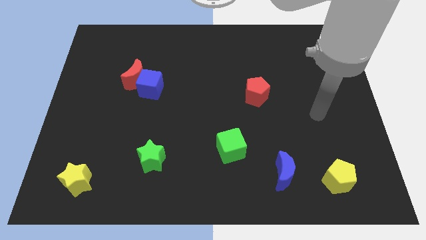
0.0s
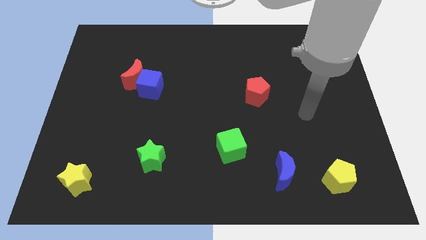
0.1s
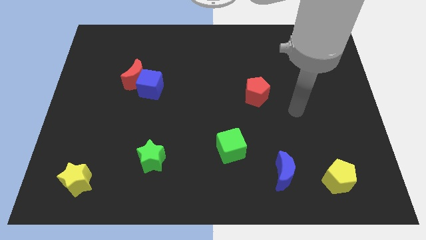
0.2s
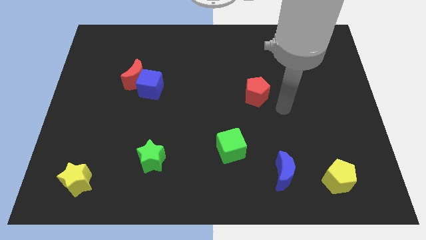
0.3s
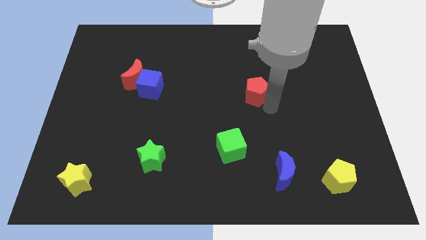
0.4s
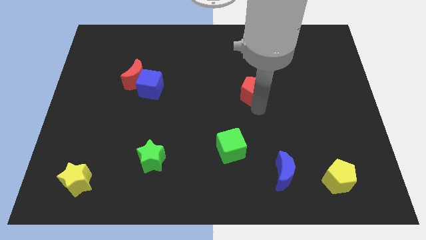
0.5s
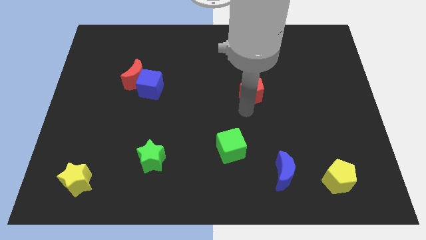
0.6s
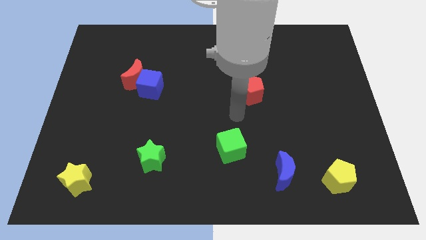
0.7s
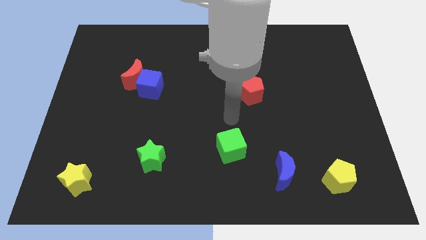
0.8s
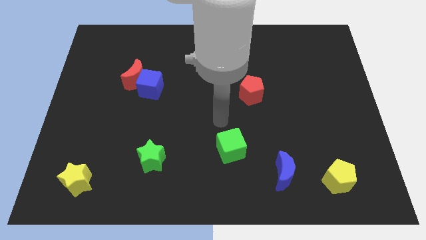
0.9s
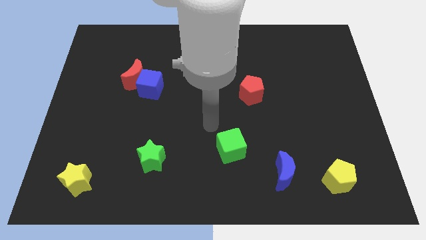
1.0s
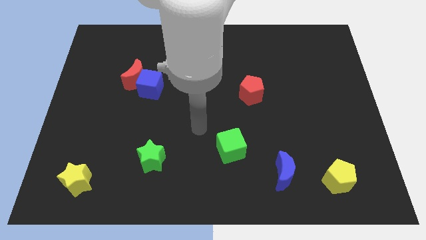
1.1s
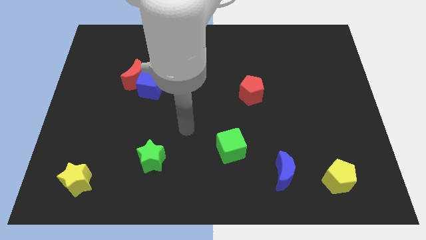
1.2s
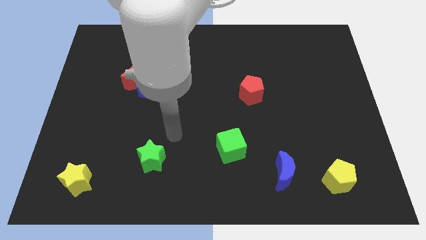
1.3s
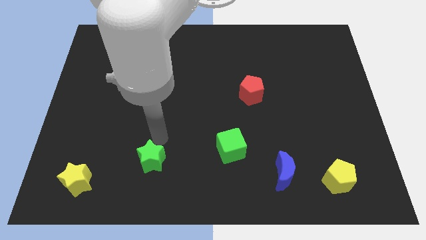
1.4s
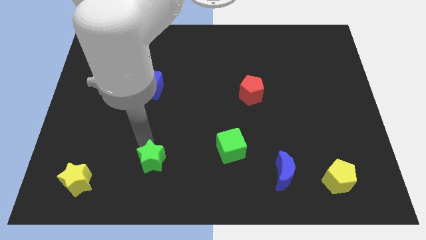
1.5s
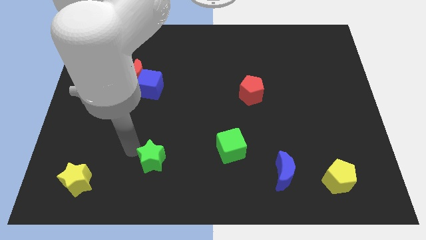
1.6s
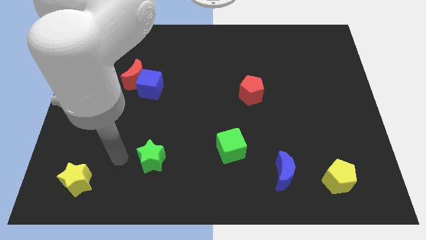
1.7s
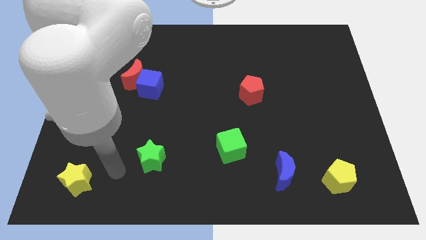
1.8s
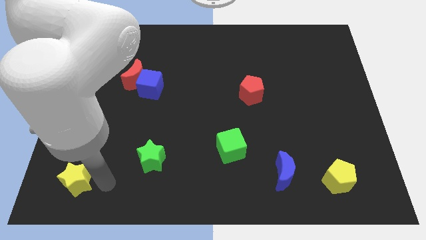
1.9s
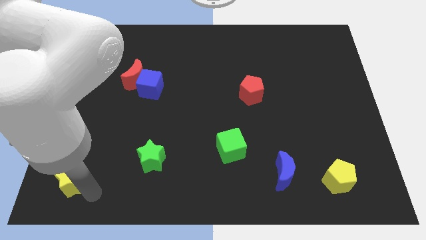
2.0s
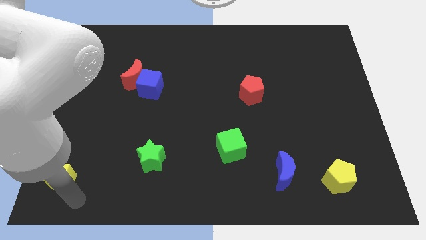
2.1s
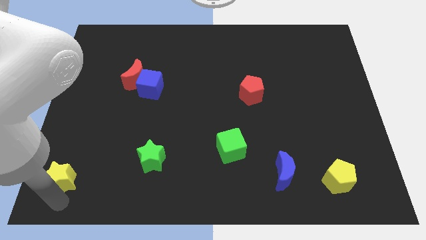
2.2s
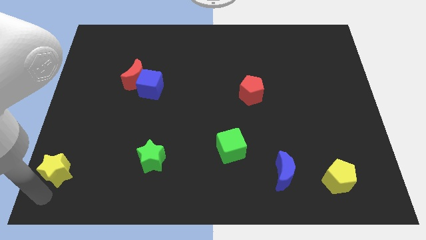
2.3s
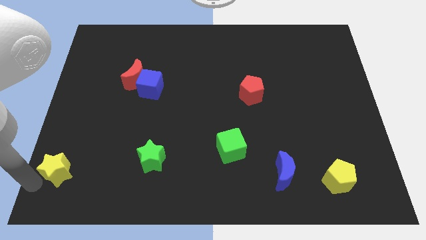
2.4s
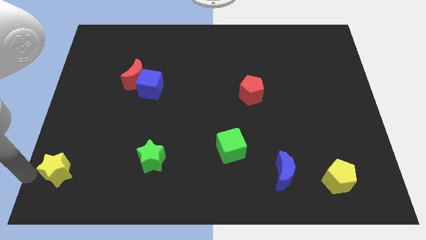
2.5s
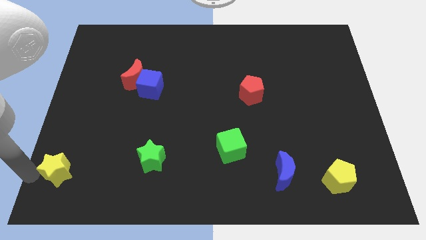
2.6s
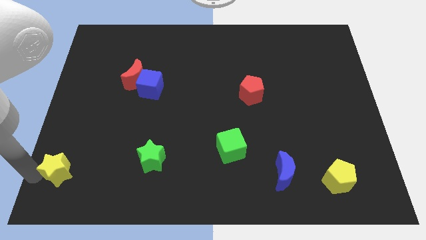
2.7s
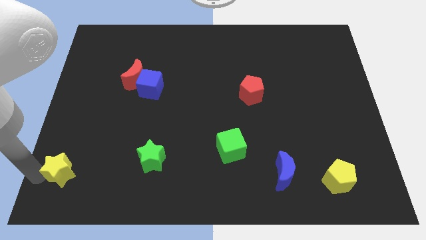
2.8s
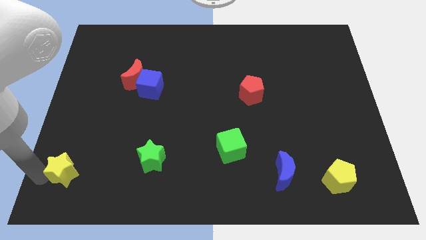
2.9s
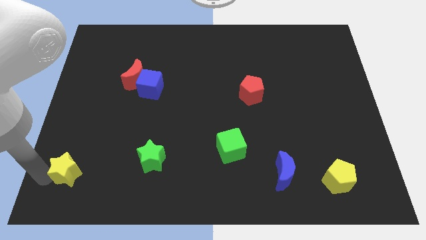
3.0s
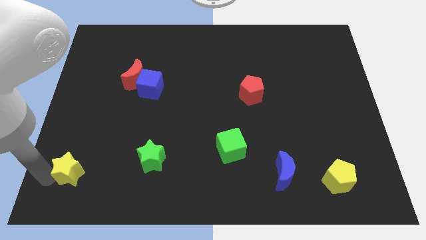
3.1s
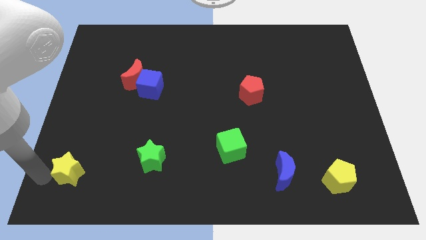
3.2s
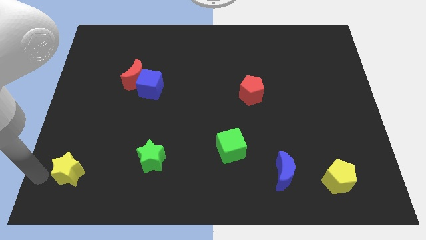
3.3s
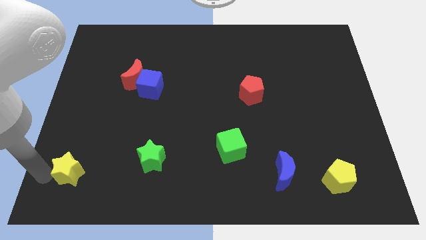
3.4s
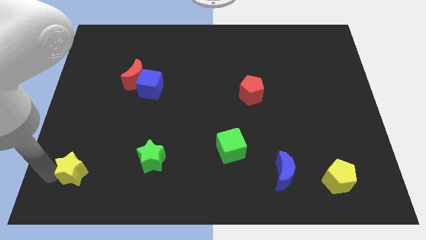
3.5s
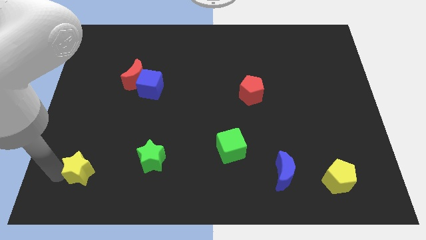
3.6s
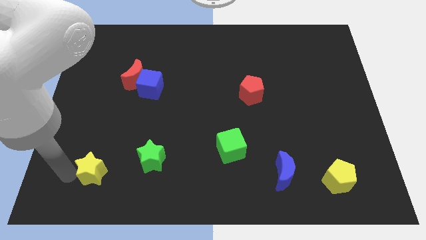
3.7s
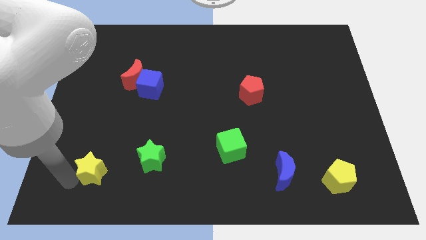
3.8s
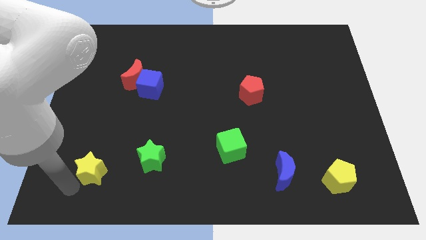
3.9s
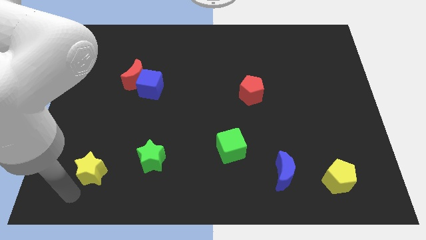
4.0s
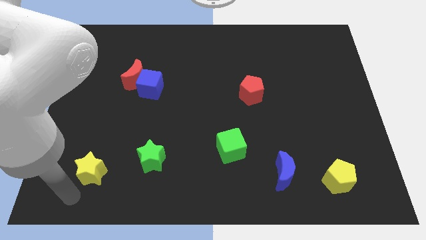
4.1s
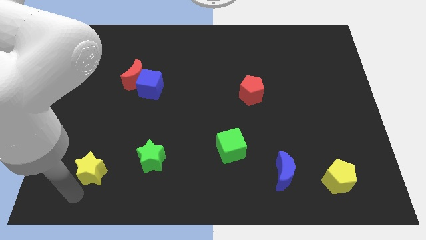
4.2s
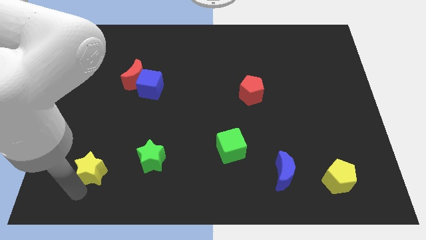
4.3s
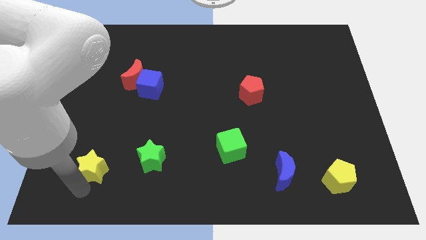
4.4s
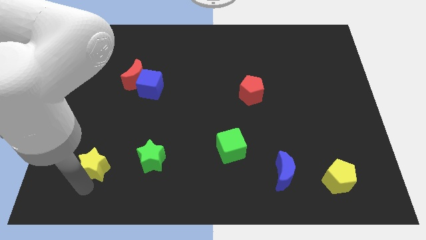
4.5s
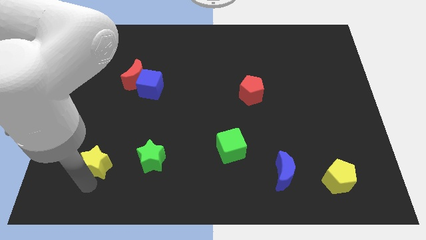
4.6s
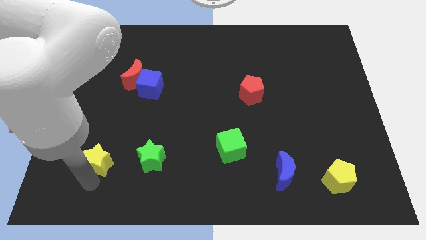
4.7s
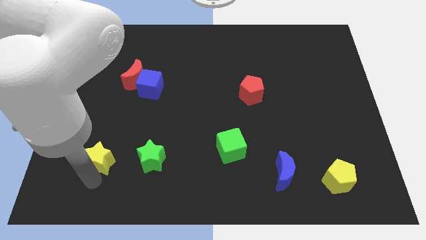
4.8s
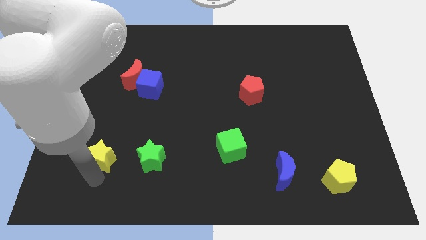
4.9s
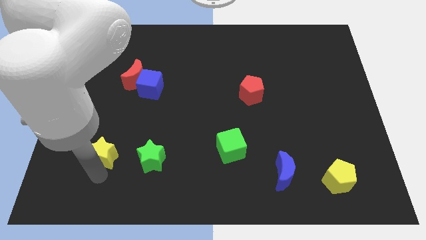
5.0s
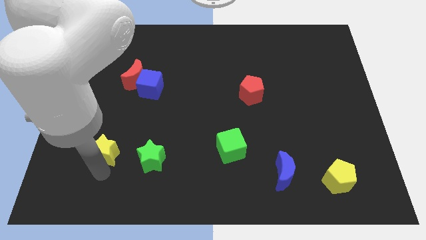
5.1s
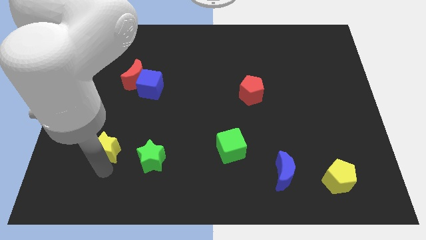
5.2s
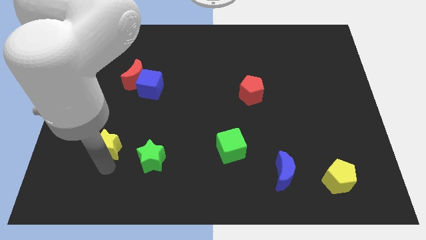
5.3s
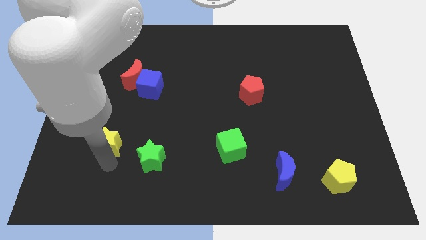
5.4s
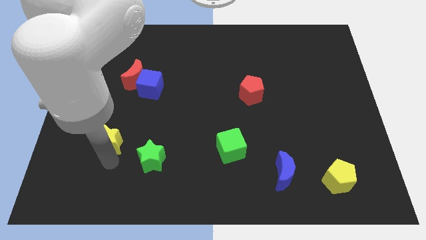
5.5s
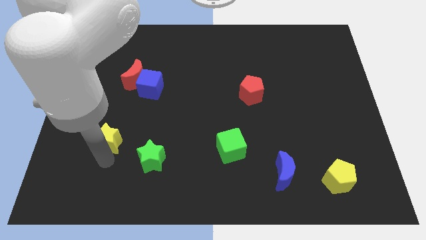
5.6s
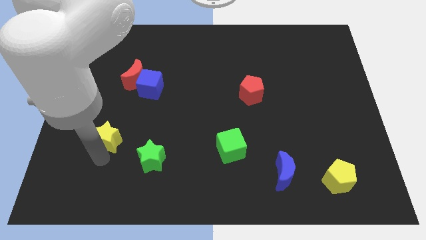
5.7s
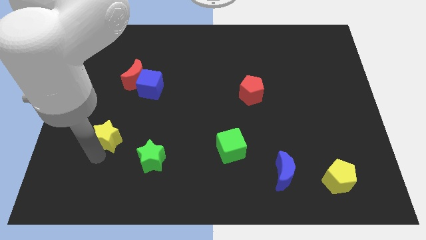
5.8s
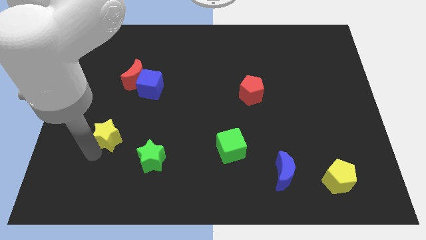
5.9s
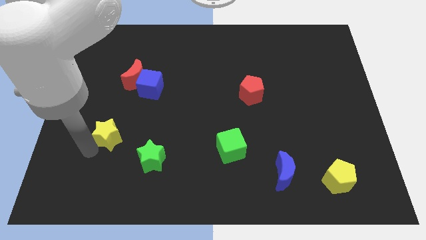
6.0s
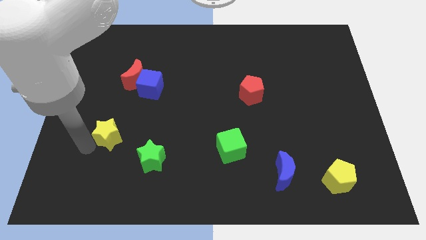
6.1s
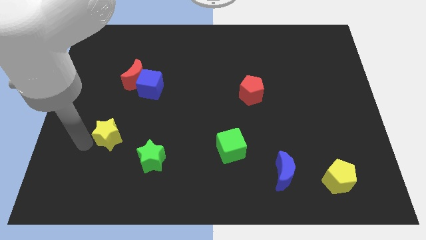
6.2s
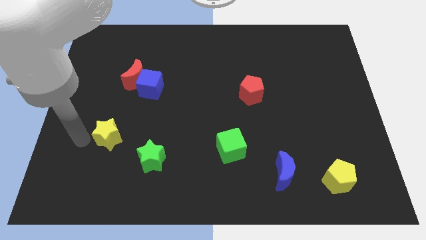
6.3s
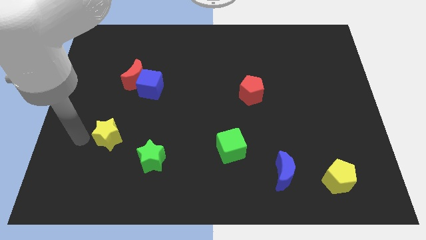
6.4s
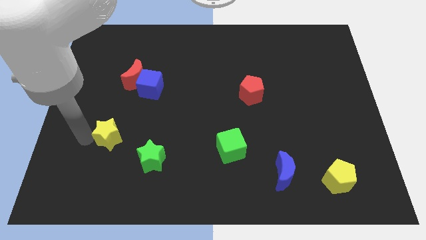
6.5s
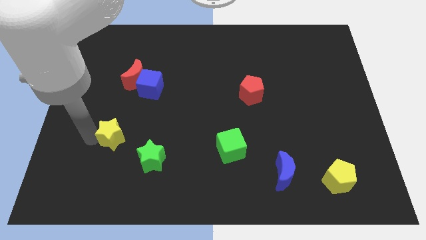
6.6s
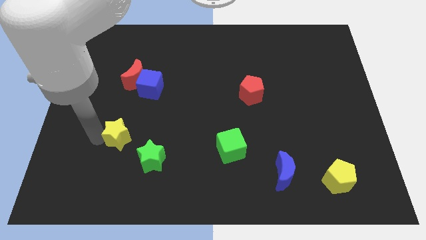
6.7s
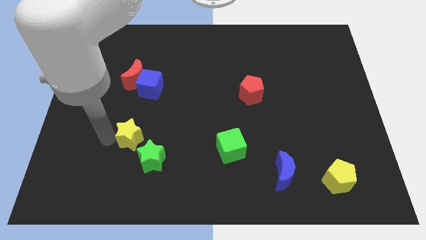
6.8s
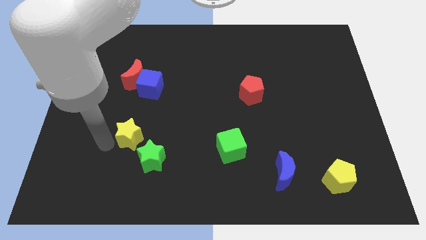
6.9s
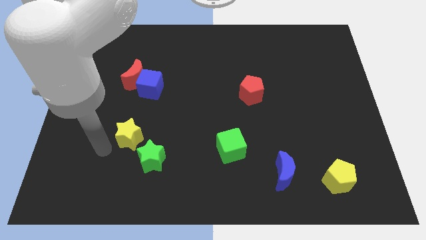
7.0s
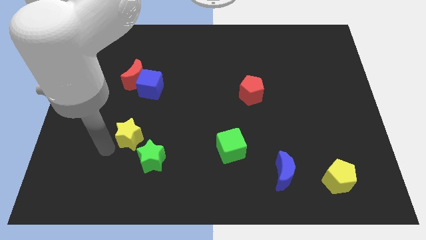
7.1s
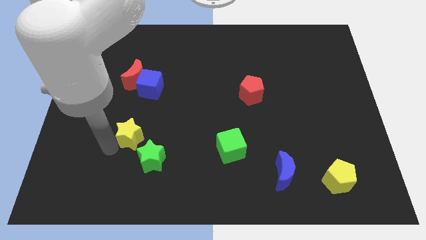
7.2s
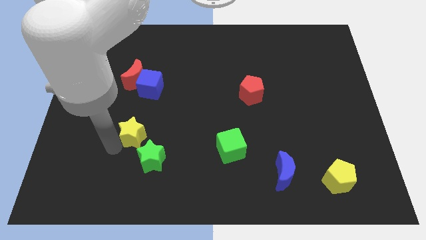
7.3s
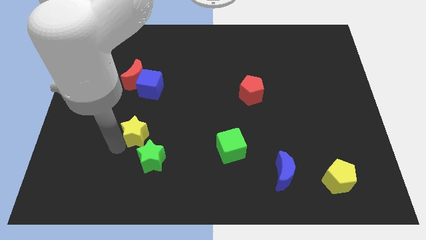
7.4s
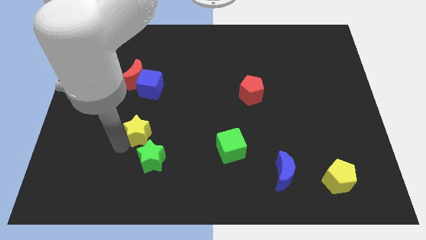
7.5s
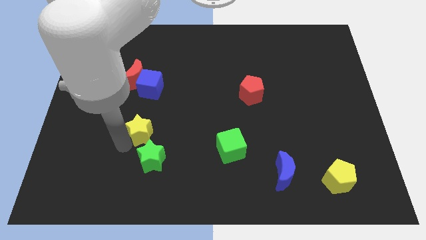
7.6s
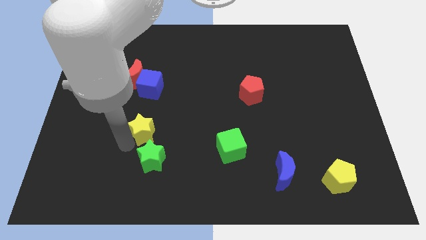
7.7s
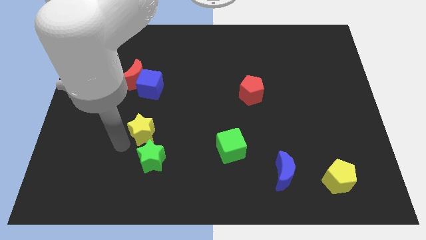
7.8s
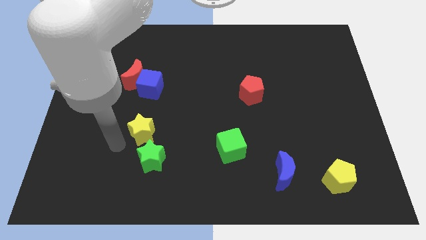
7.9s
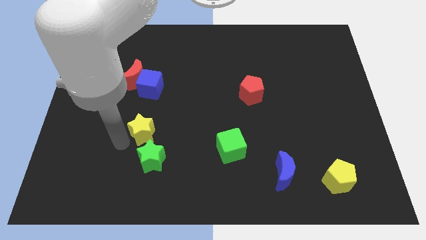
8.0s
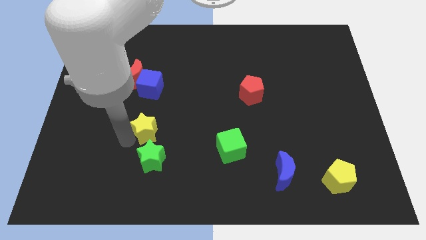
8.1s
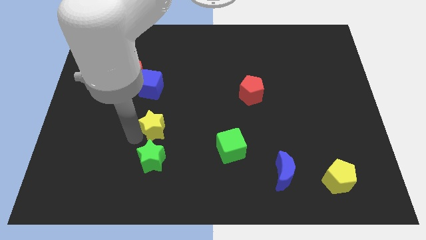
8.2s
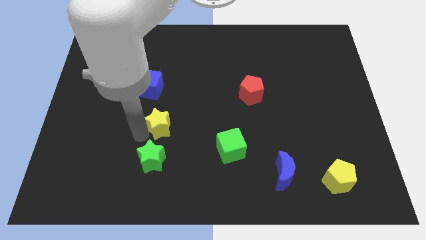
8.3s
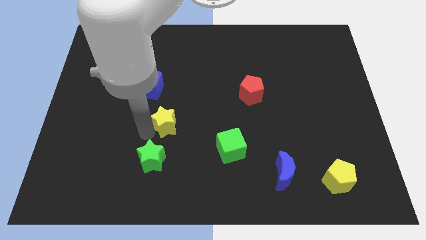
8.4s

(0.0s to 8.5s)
slide the yellow star to the center
